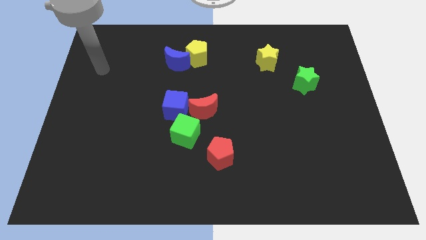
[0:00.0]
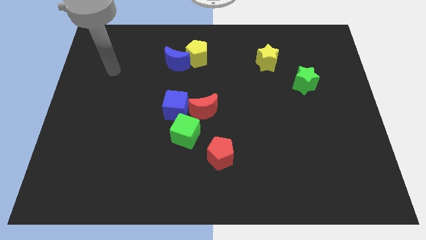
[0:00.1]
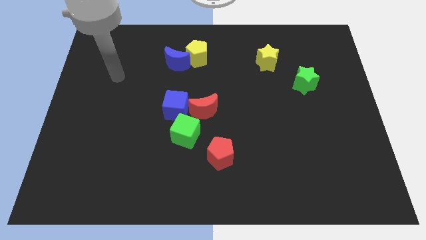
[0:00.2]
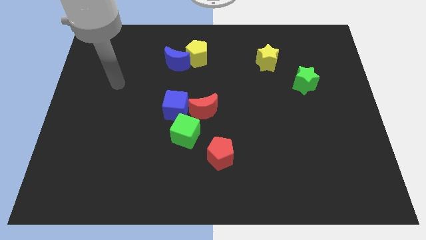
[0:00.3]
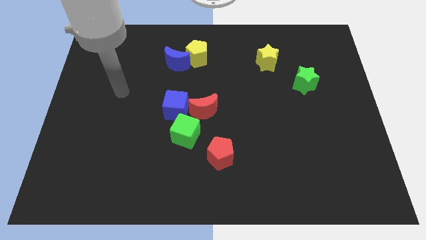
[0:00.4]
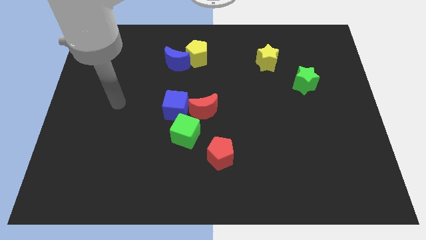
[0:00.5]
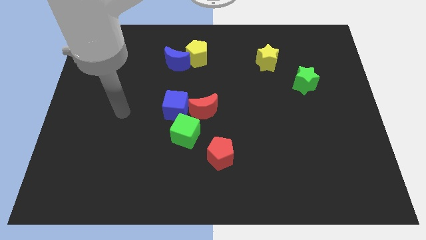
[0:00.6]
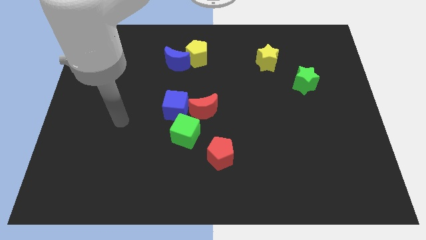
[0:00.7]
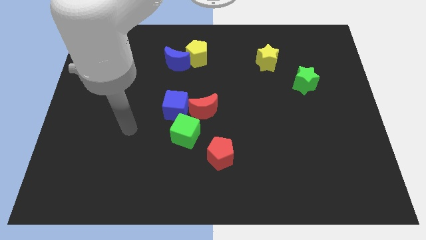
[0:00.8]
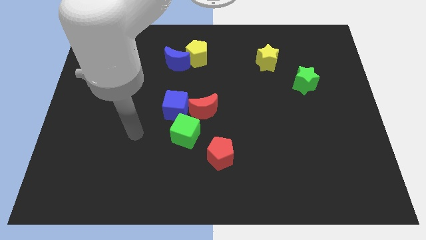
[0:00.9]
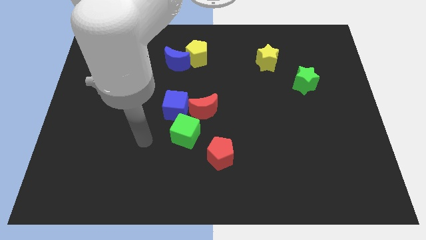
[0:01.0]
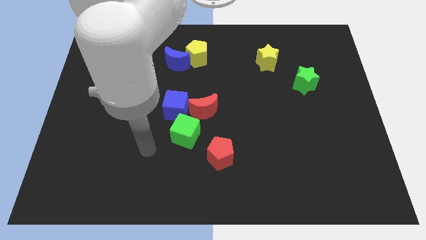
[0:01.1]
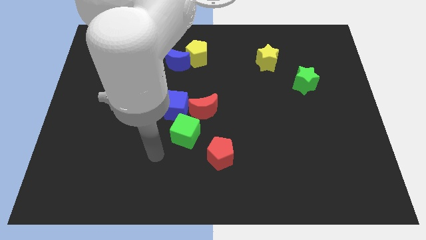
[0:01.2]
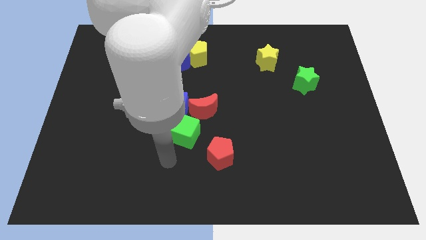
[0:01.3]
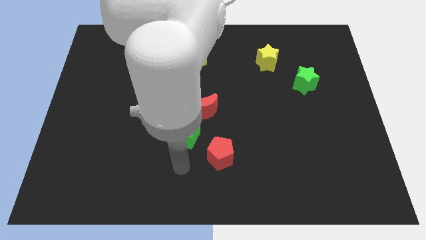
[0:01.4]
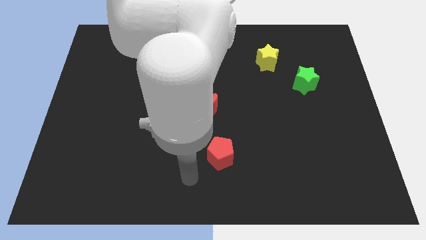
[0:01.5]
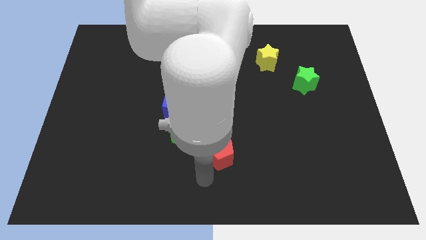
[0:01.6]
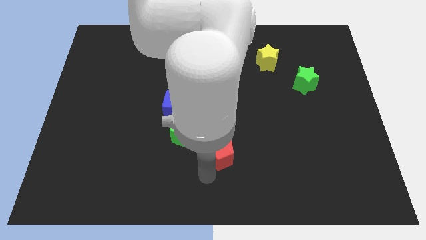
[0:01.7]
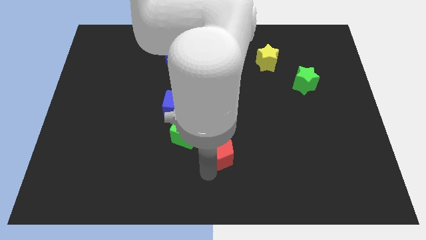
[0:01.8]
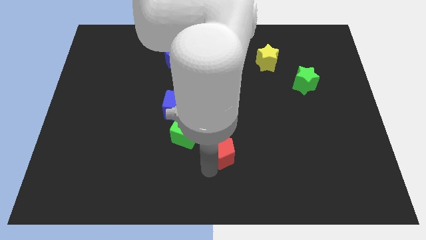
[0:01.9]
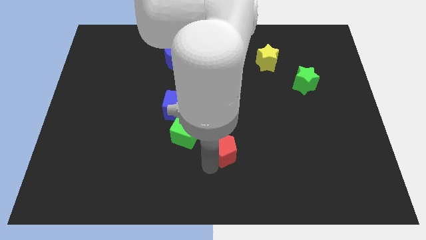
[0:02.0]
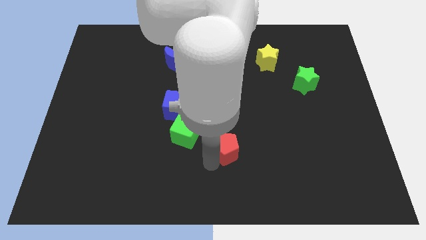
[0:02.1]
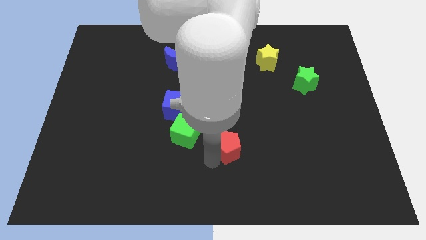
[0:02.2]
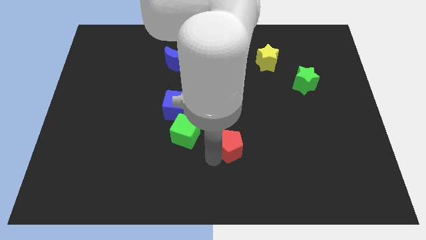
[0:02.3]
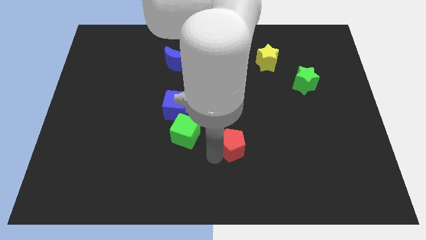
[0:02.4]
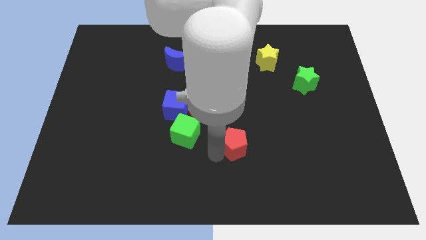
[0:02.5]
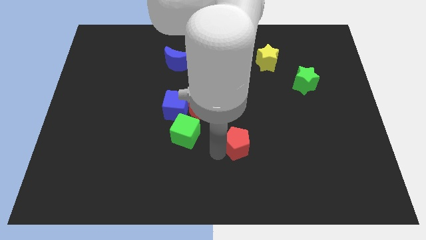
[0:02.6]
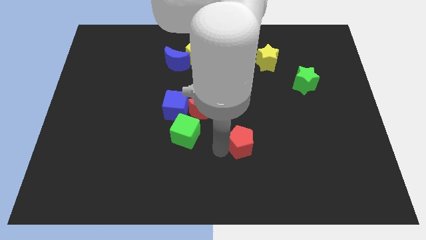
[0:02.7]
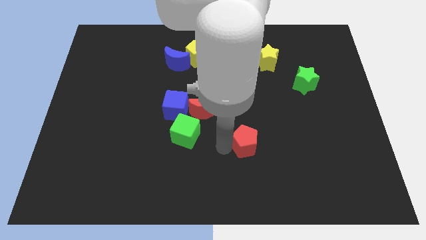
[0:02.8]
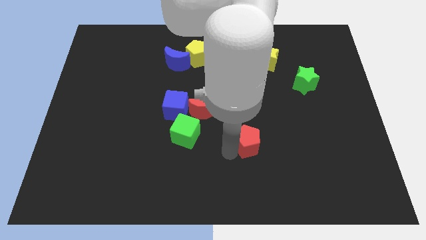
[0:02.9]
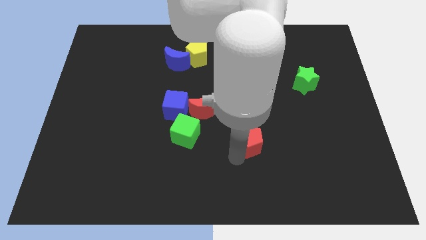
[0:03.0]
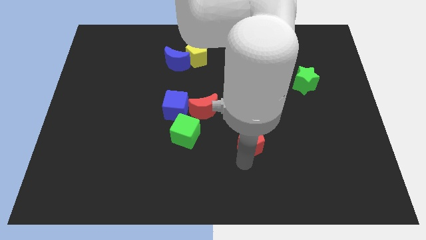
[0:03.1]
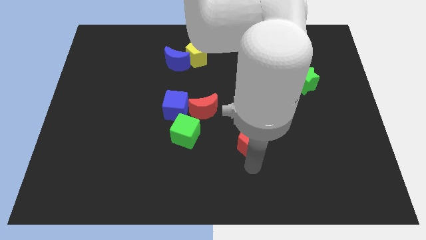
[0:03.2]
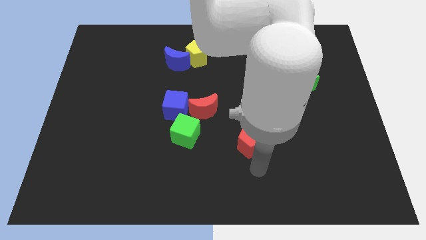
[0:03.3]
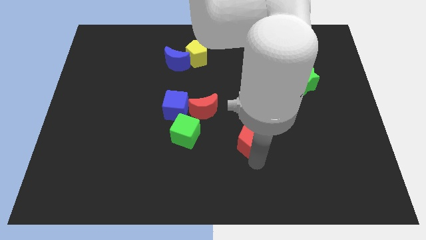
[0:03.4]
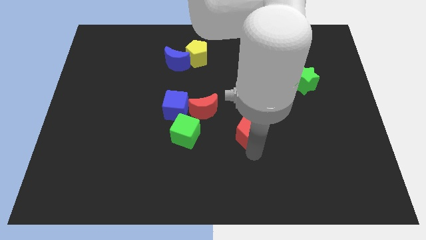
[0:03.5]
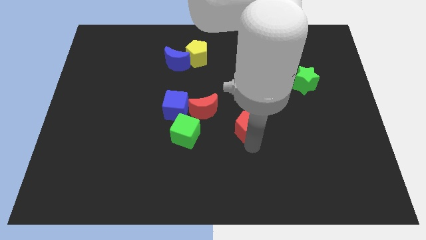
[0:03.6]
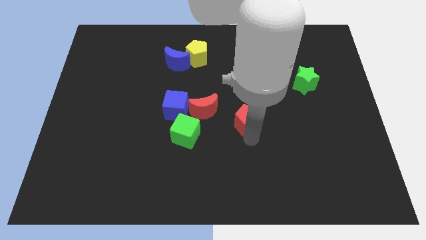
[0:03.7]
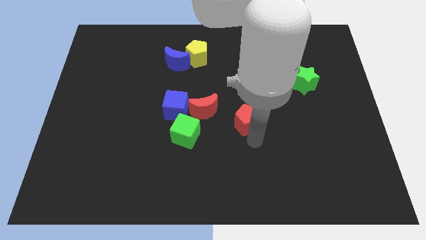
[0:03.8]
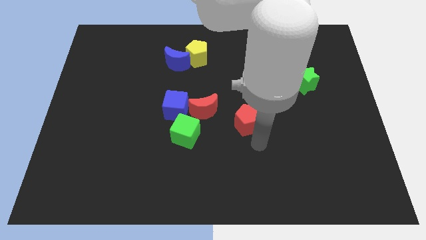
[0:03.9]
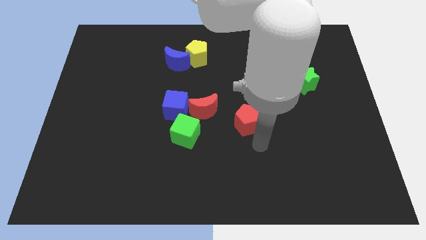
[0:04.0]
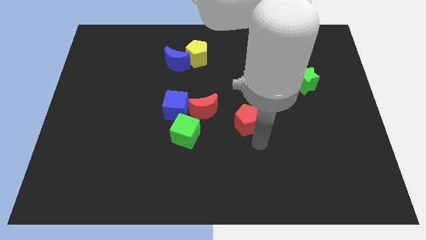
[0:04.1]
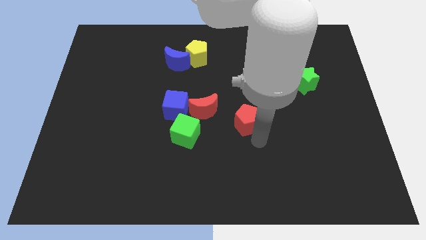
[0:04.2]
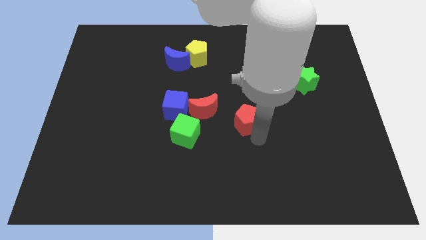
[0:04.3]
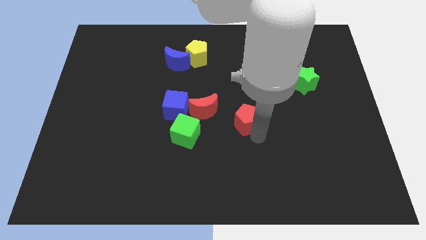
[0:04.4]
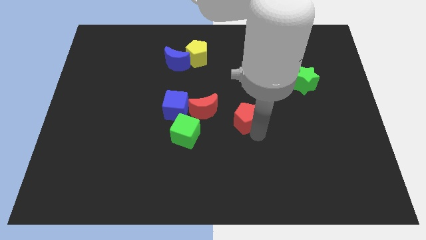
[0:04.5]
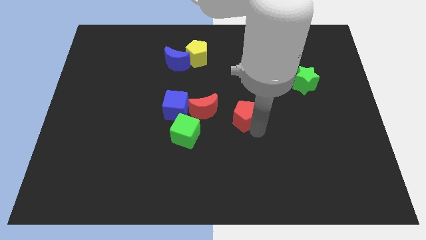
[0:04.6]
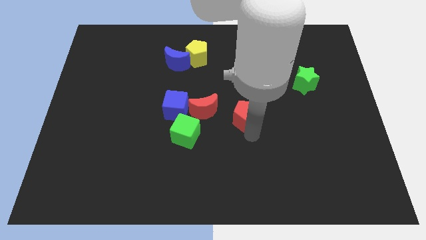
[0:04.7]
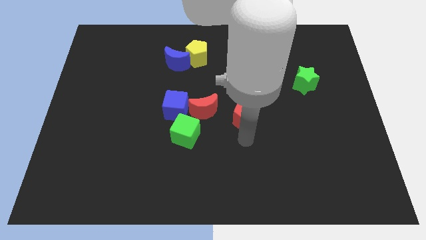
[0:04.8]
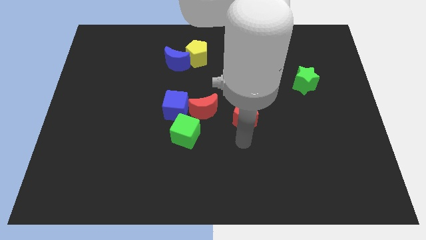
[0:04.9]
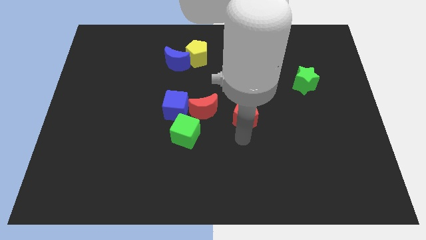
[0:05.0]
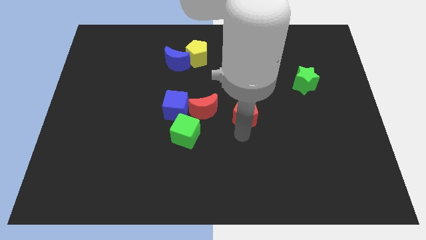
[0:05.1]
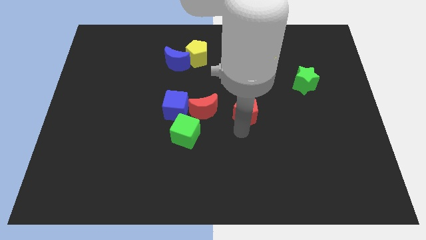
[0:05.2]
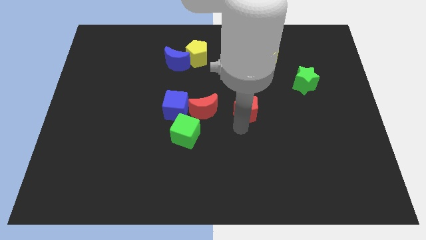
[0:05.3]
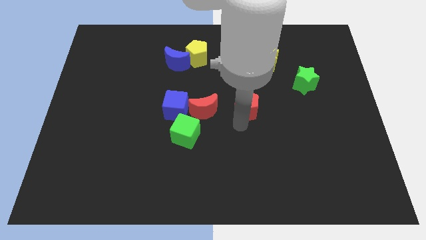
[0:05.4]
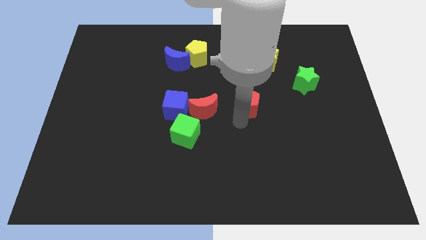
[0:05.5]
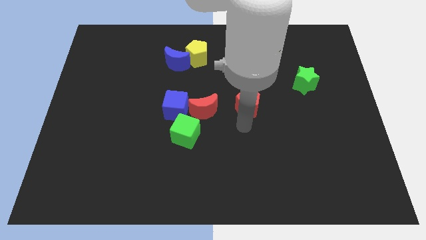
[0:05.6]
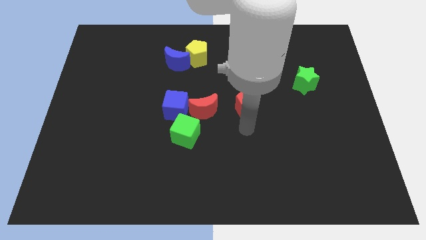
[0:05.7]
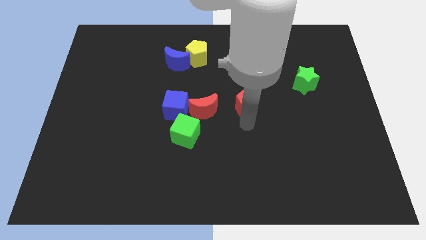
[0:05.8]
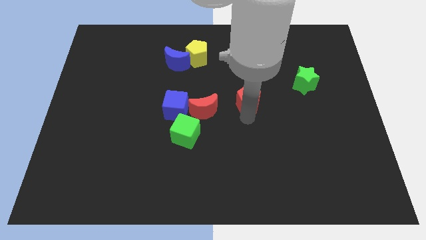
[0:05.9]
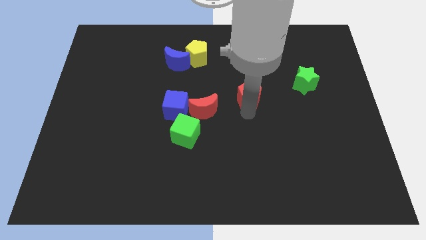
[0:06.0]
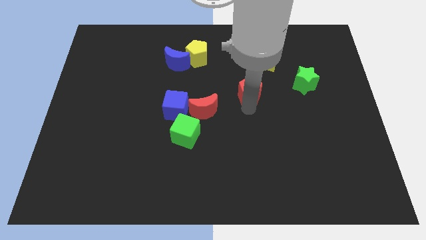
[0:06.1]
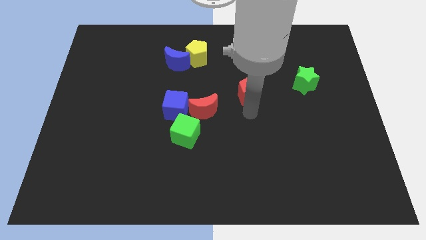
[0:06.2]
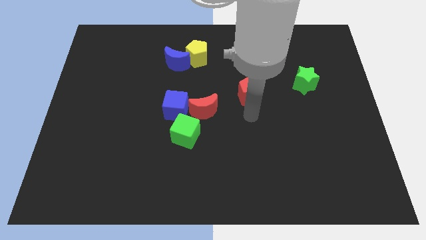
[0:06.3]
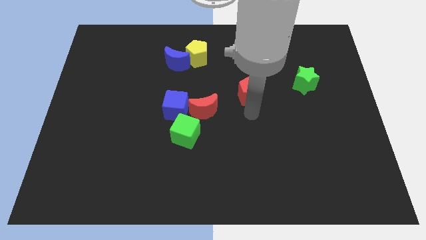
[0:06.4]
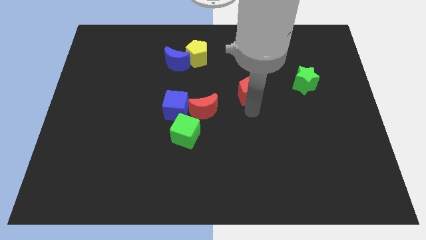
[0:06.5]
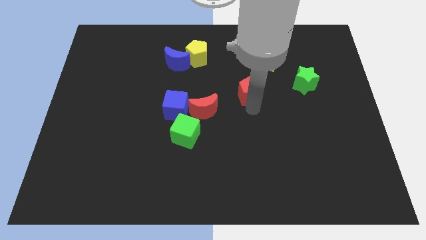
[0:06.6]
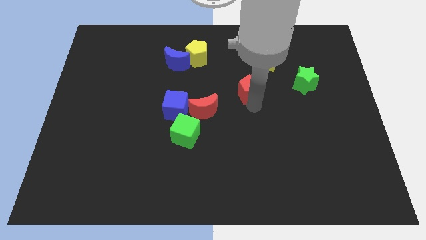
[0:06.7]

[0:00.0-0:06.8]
slide the red pentagon diagonally down and to the left of the yellow star

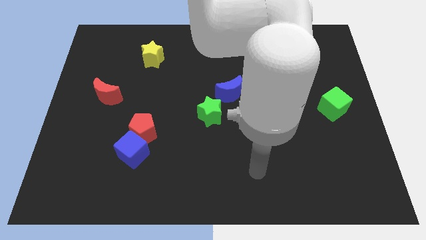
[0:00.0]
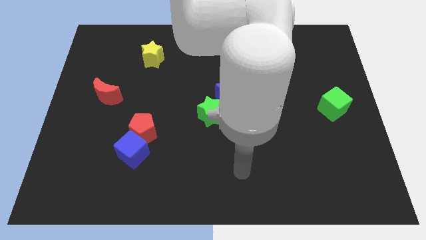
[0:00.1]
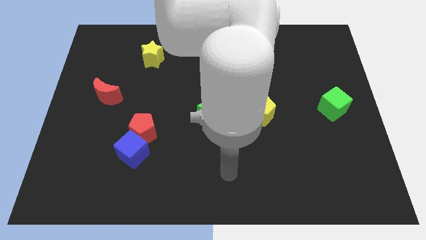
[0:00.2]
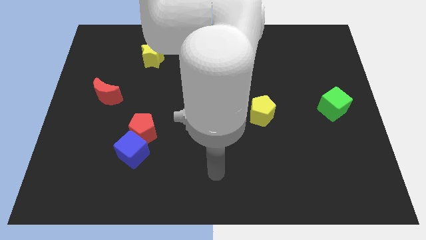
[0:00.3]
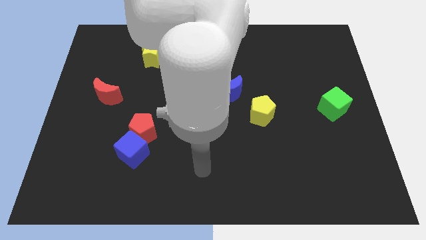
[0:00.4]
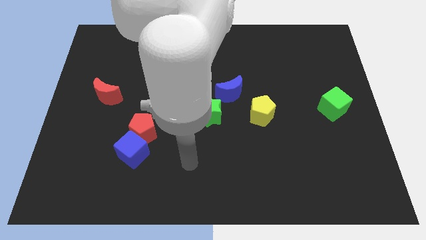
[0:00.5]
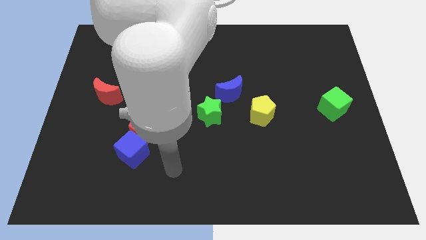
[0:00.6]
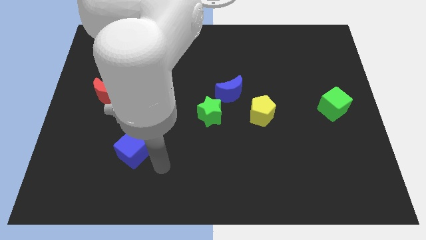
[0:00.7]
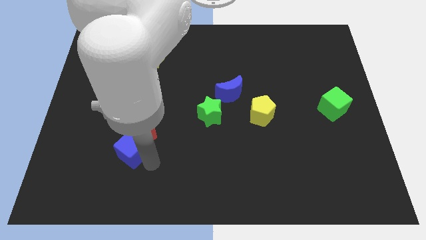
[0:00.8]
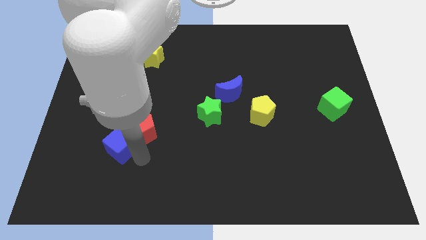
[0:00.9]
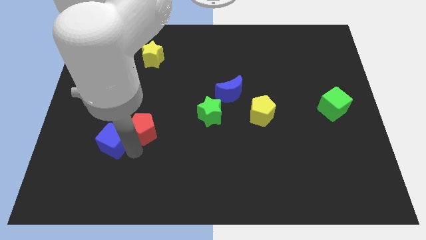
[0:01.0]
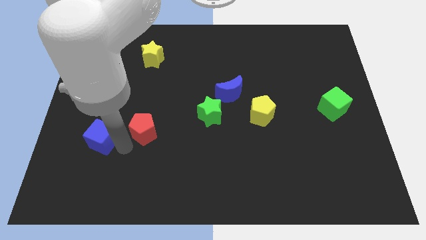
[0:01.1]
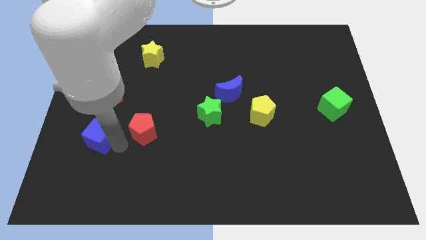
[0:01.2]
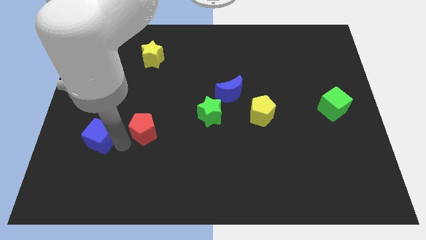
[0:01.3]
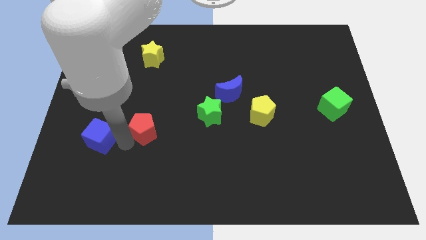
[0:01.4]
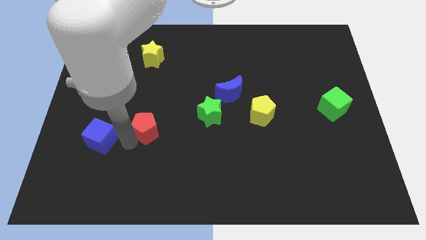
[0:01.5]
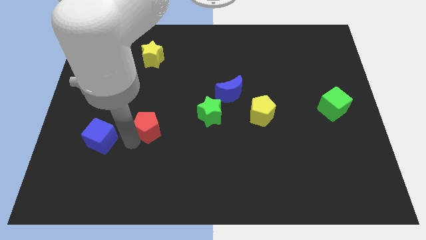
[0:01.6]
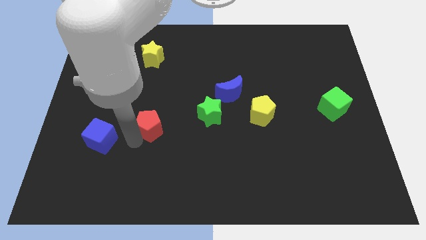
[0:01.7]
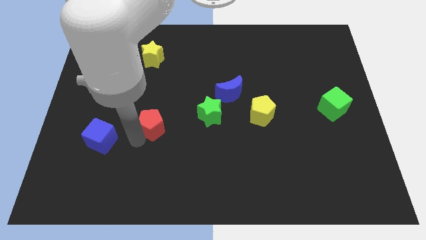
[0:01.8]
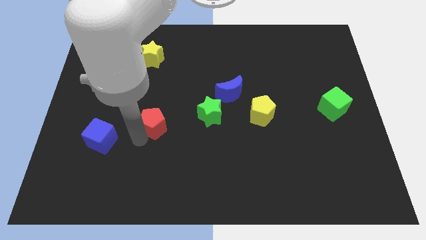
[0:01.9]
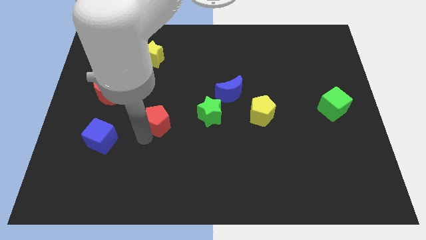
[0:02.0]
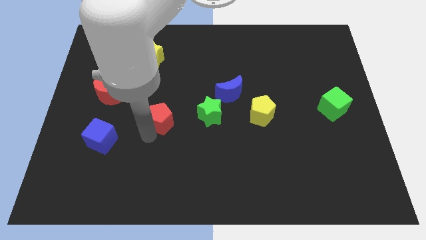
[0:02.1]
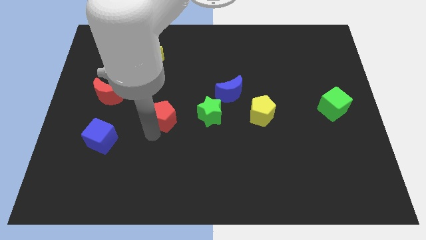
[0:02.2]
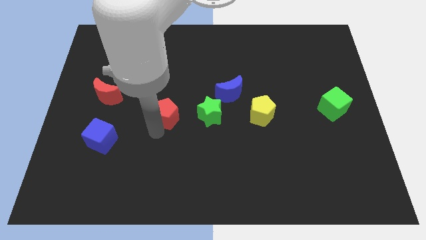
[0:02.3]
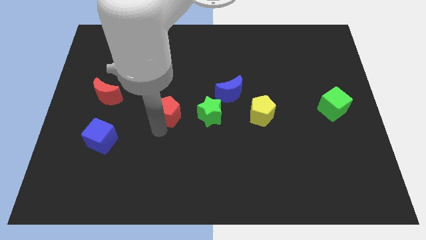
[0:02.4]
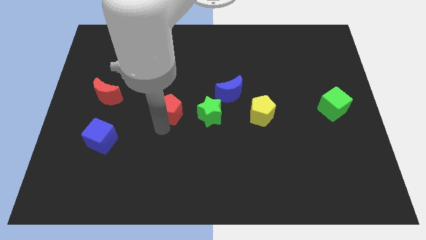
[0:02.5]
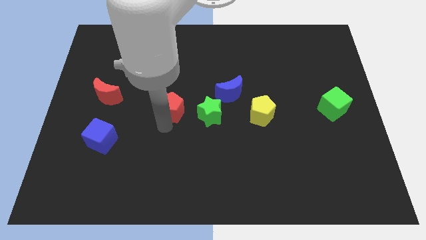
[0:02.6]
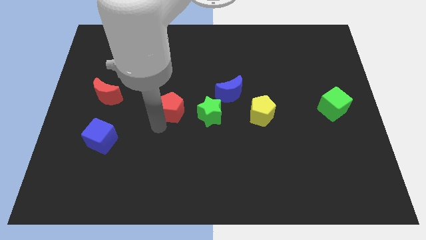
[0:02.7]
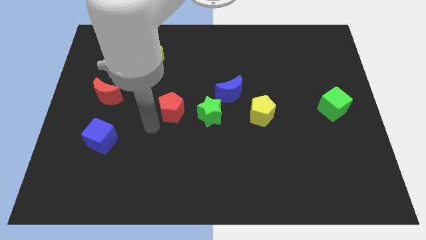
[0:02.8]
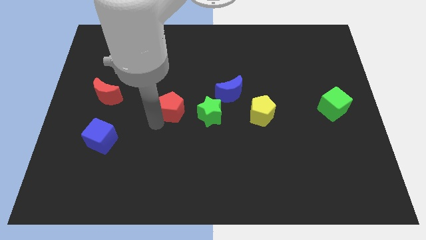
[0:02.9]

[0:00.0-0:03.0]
slide the red pentagon diagonally up and to the left of the green star
